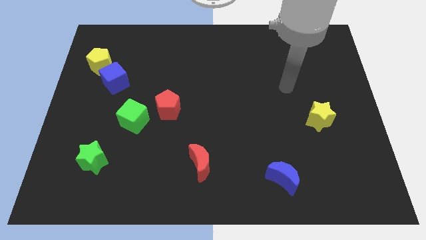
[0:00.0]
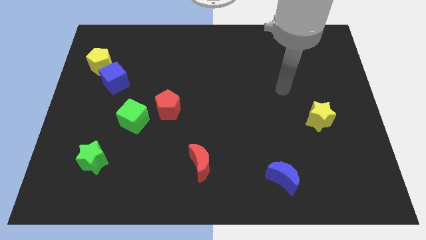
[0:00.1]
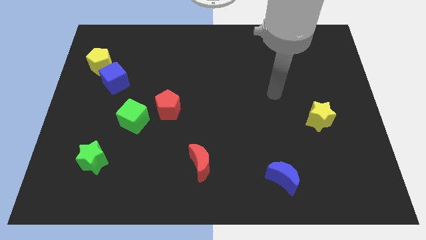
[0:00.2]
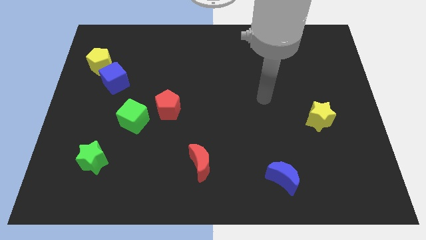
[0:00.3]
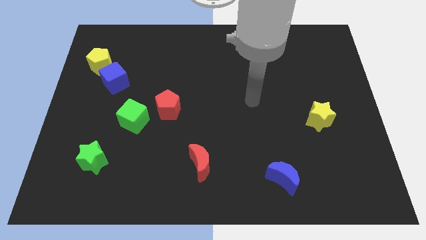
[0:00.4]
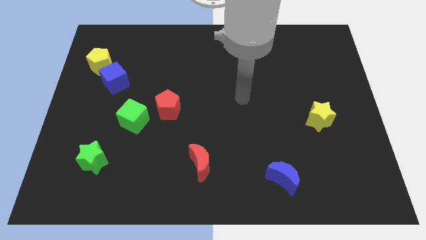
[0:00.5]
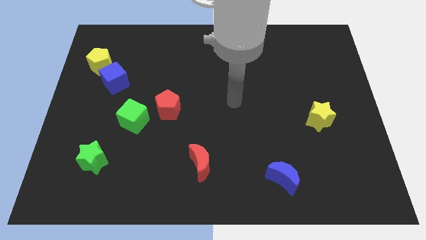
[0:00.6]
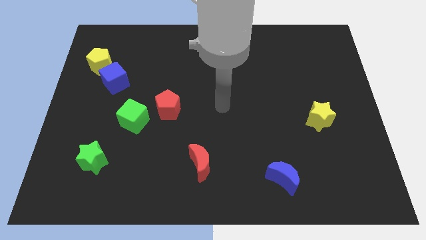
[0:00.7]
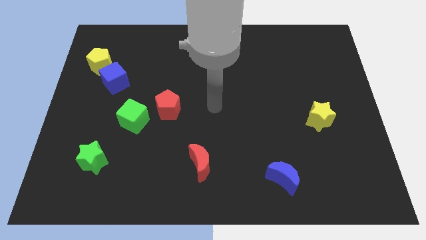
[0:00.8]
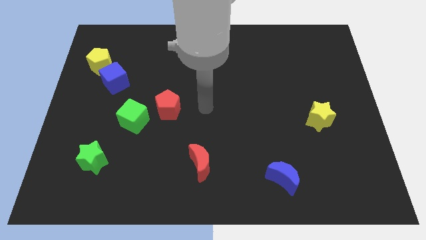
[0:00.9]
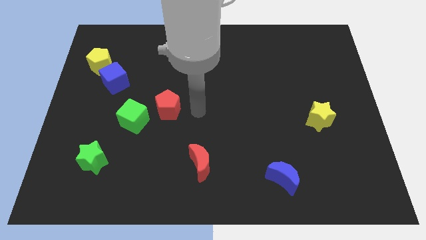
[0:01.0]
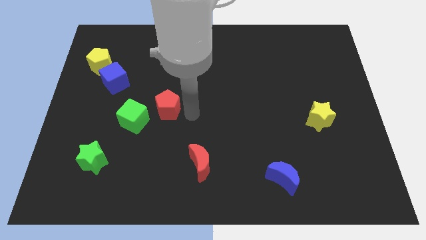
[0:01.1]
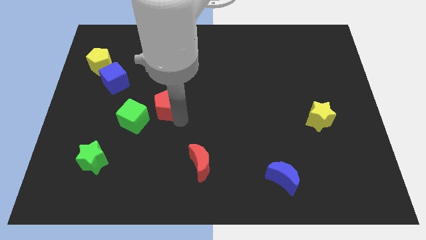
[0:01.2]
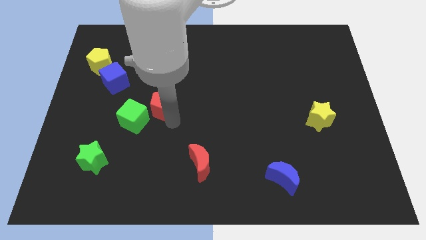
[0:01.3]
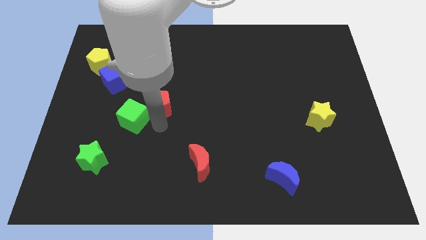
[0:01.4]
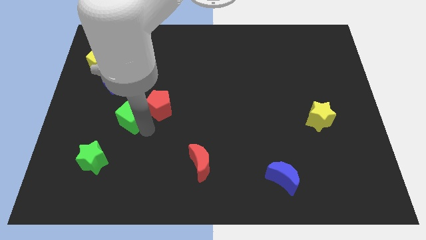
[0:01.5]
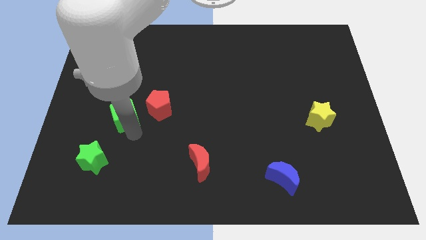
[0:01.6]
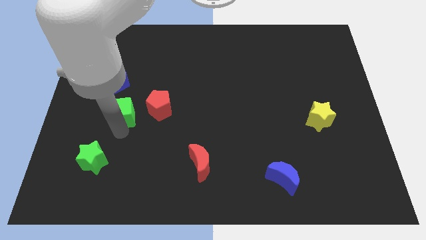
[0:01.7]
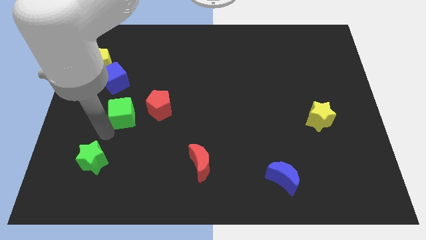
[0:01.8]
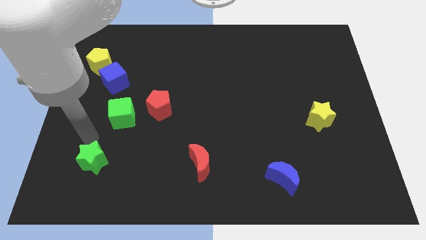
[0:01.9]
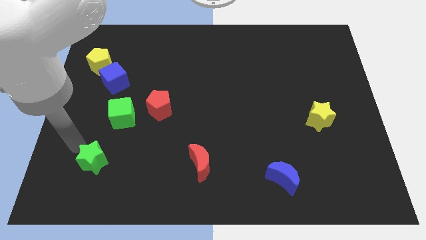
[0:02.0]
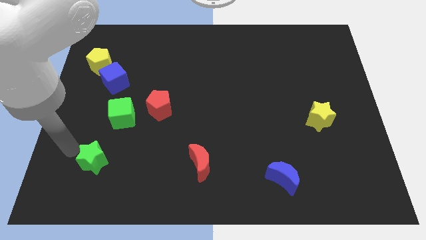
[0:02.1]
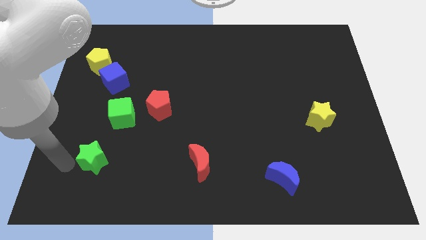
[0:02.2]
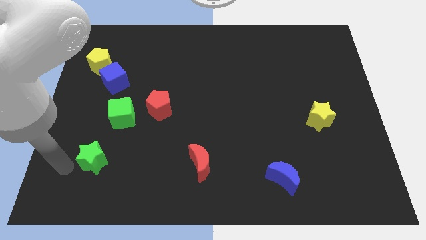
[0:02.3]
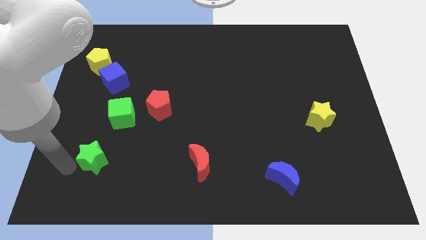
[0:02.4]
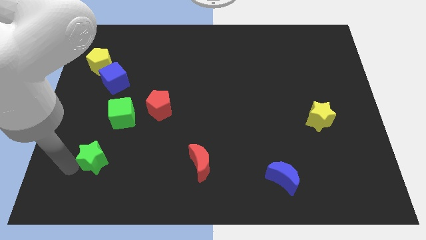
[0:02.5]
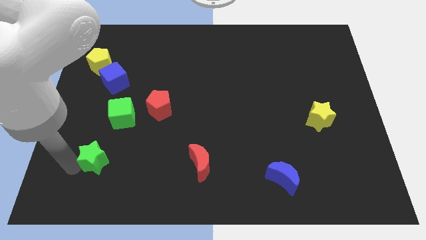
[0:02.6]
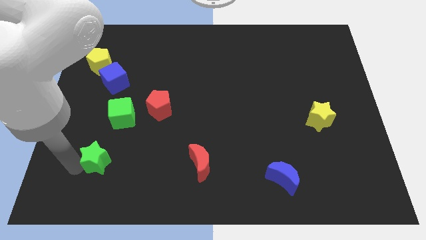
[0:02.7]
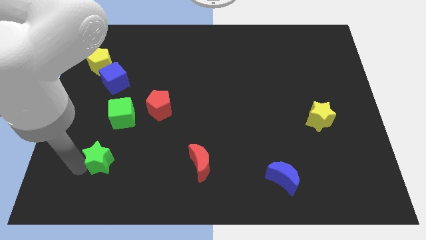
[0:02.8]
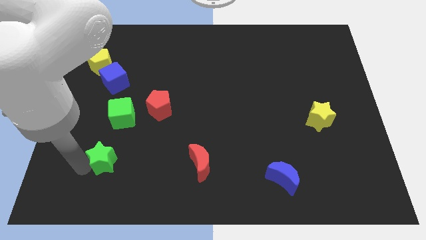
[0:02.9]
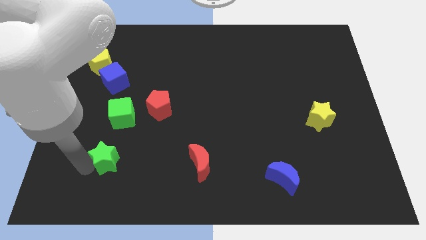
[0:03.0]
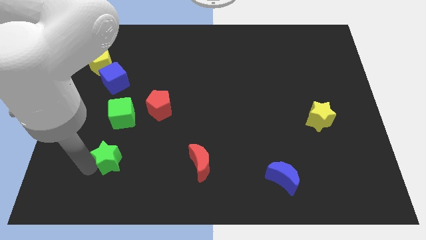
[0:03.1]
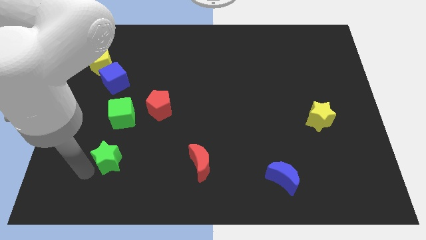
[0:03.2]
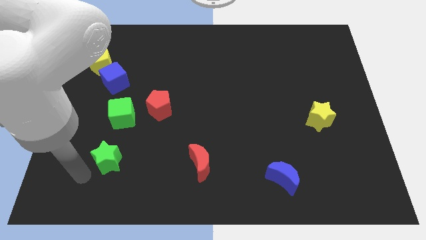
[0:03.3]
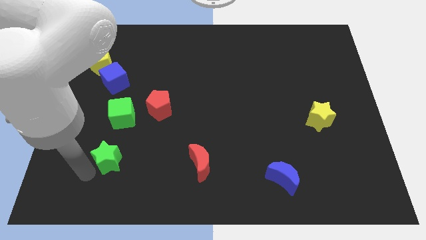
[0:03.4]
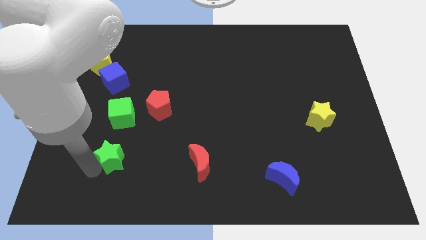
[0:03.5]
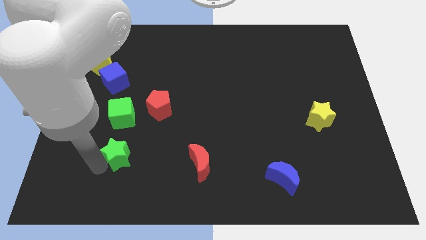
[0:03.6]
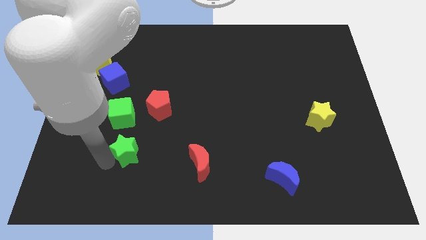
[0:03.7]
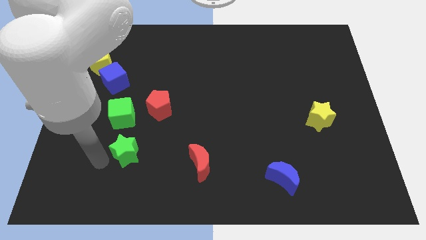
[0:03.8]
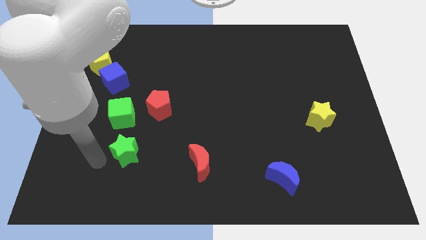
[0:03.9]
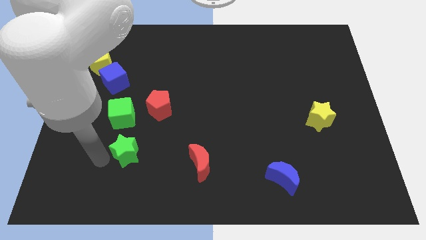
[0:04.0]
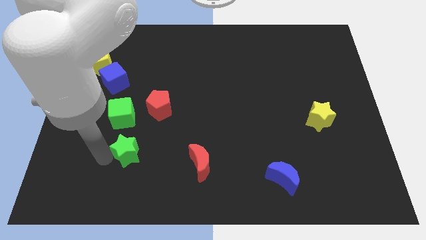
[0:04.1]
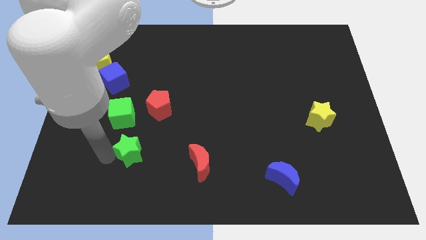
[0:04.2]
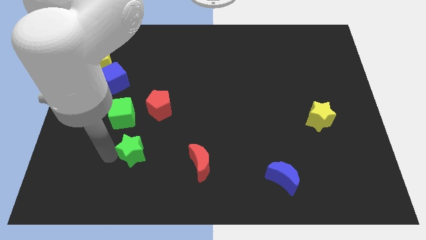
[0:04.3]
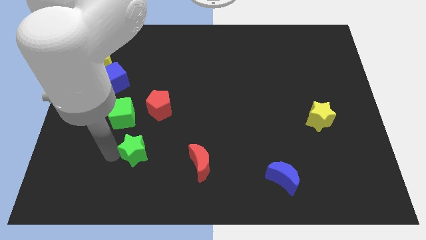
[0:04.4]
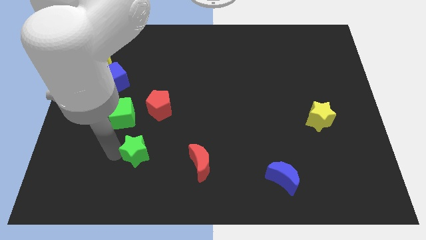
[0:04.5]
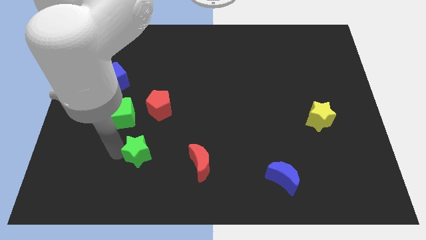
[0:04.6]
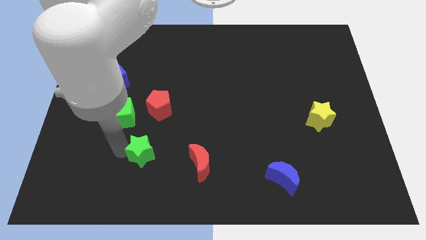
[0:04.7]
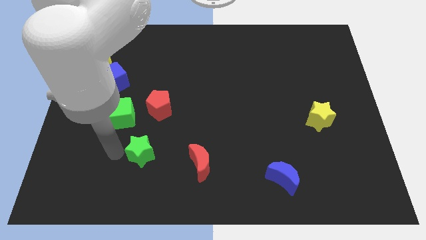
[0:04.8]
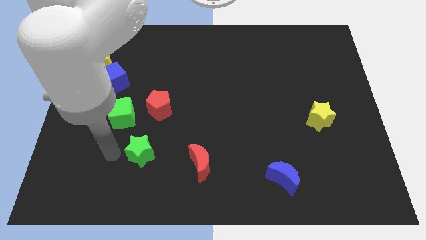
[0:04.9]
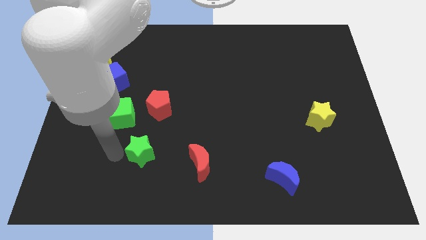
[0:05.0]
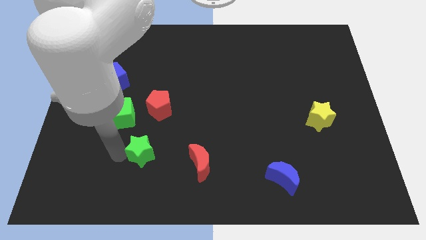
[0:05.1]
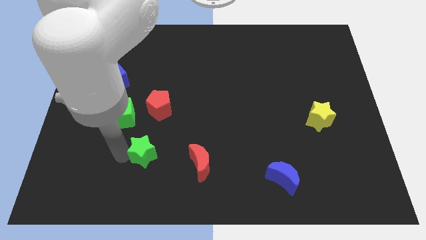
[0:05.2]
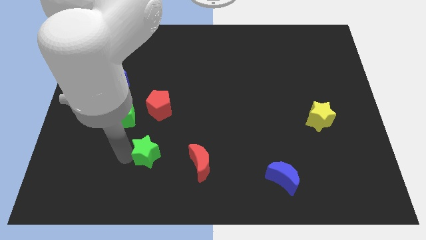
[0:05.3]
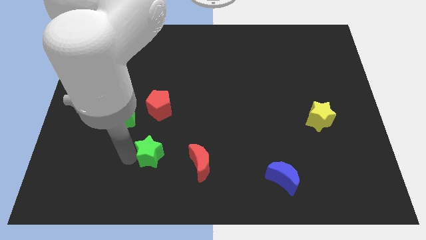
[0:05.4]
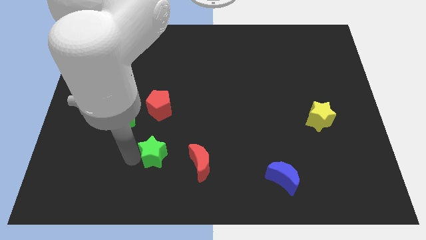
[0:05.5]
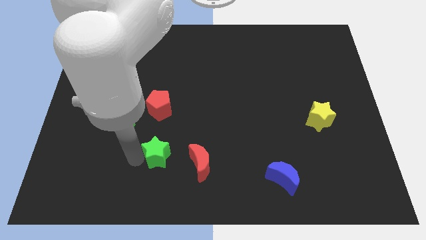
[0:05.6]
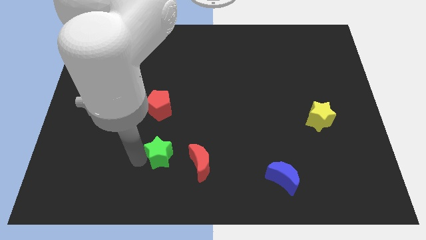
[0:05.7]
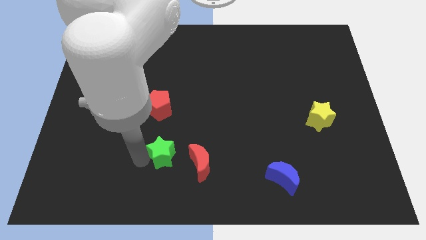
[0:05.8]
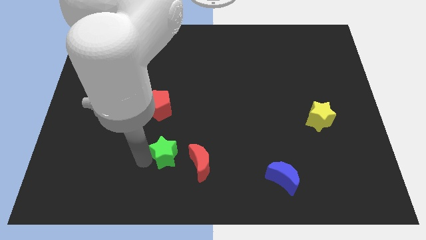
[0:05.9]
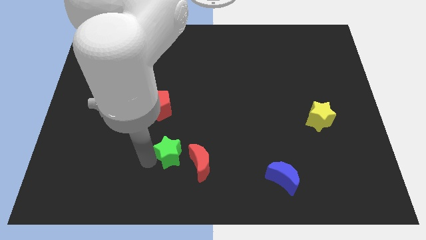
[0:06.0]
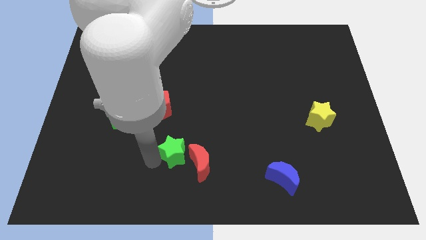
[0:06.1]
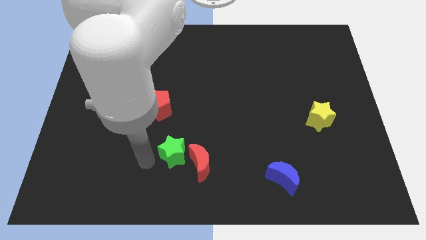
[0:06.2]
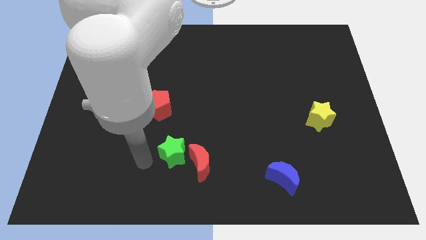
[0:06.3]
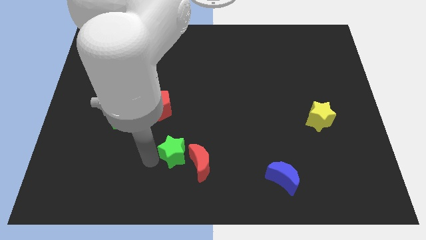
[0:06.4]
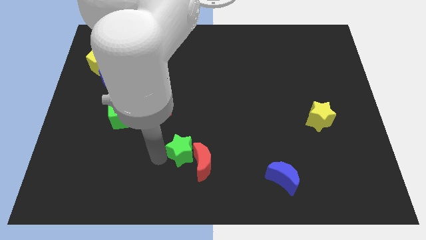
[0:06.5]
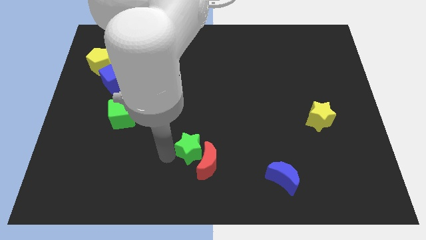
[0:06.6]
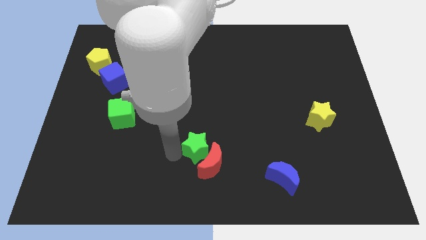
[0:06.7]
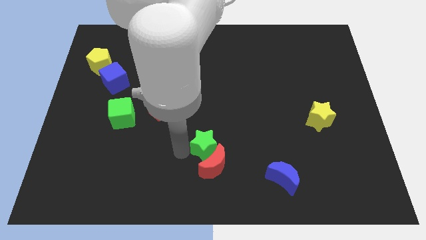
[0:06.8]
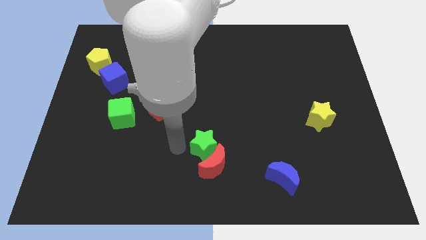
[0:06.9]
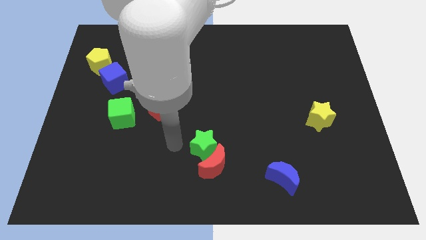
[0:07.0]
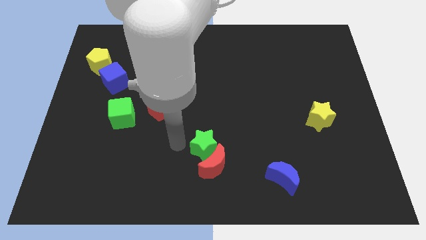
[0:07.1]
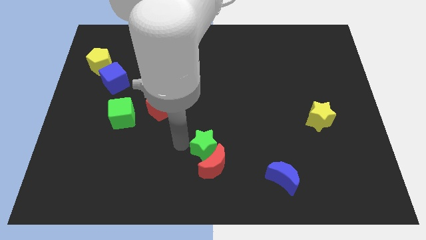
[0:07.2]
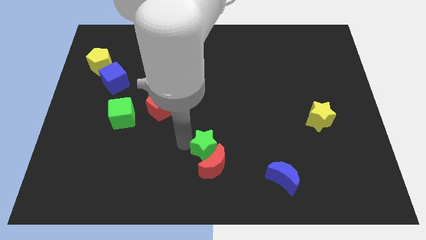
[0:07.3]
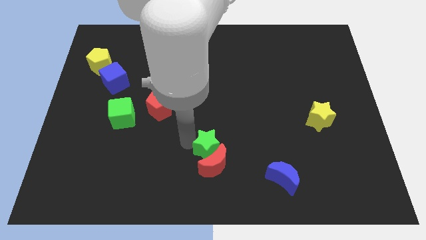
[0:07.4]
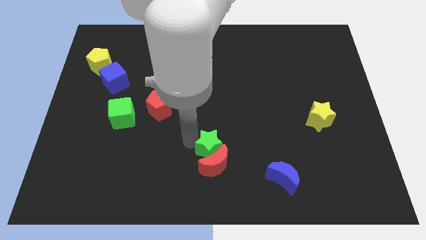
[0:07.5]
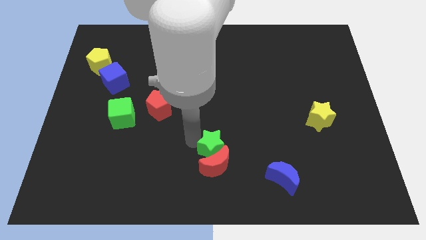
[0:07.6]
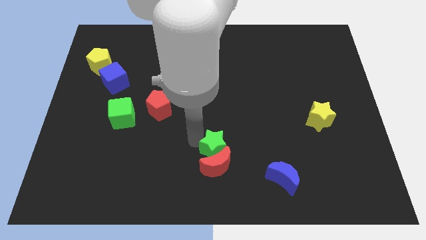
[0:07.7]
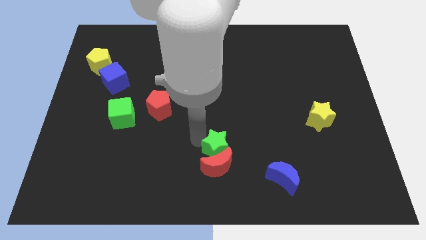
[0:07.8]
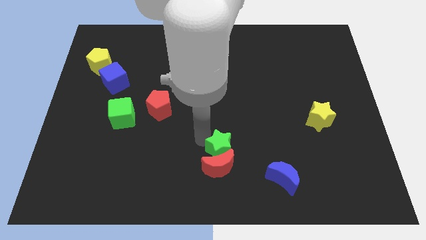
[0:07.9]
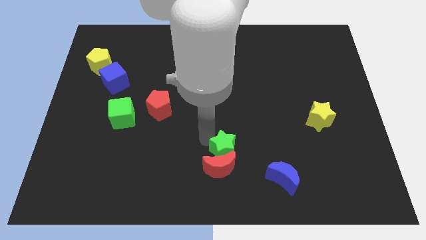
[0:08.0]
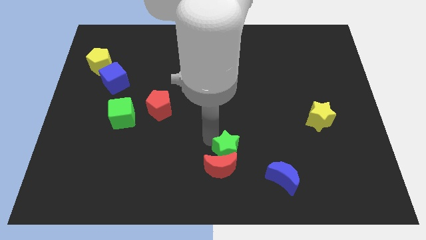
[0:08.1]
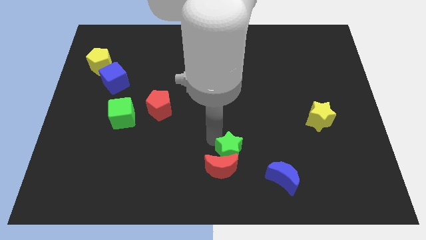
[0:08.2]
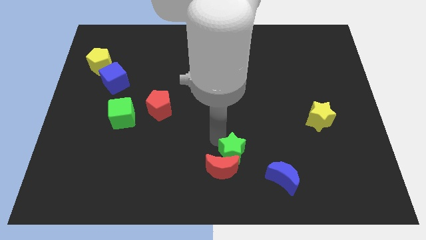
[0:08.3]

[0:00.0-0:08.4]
move the green star to the top left side of the blue moon
